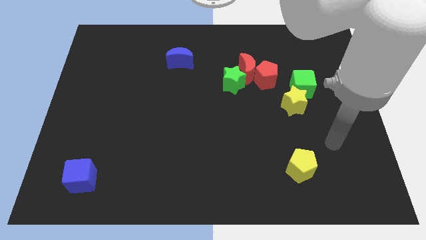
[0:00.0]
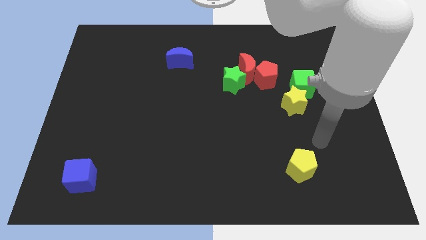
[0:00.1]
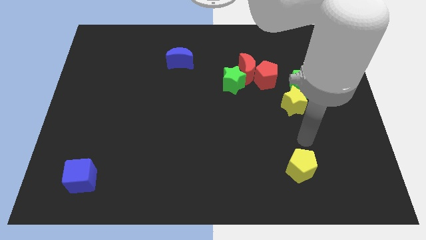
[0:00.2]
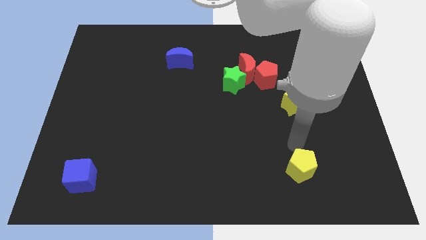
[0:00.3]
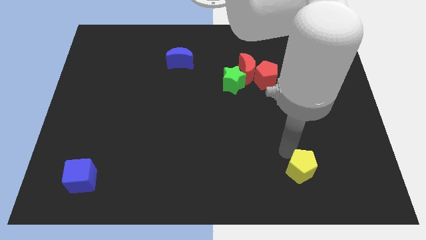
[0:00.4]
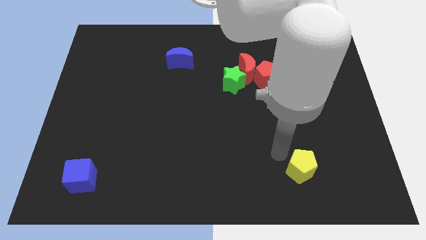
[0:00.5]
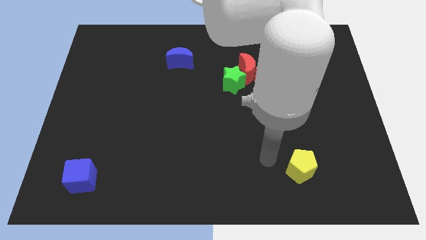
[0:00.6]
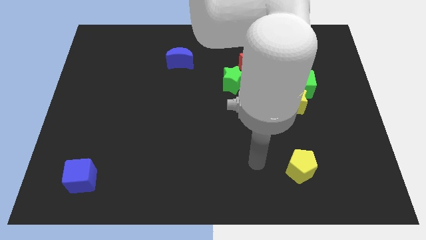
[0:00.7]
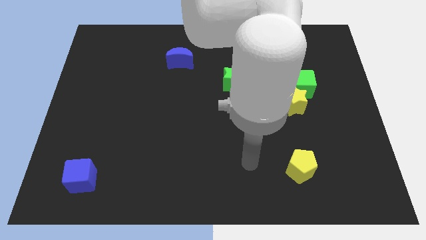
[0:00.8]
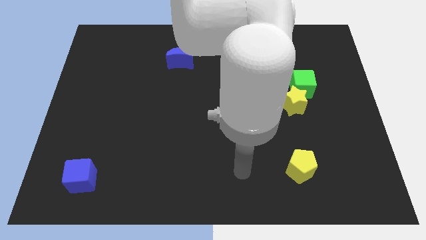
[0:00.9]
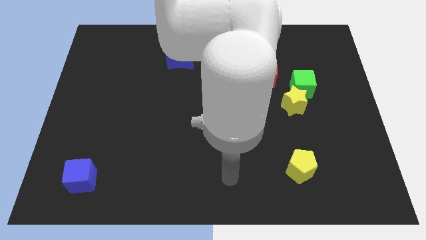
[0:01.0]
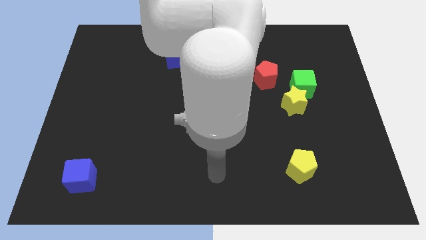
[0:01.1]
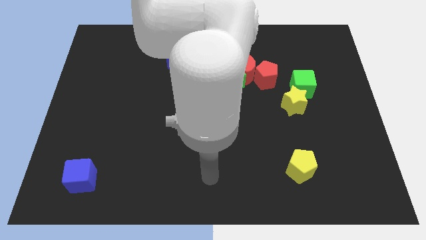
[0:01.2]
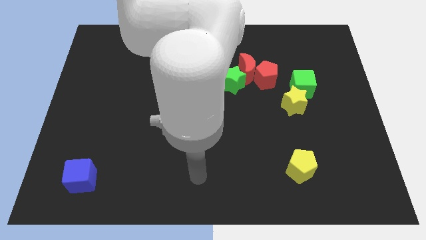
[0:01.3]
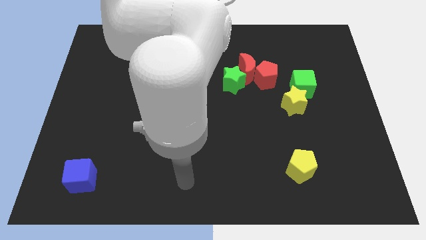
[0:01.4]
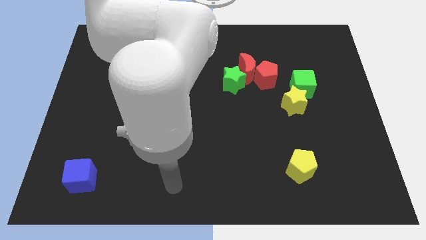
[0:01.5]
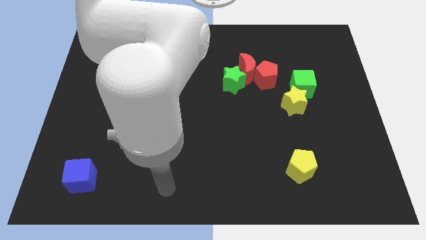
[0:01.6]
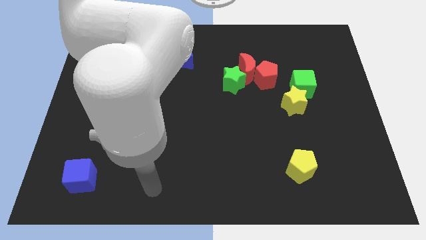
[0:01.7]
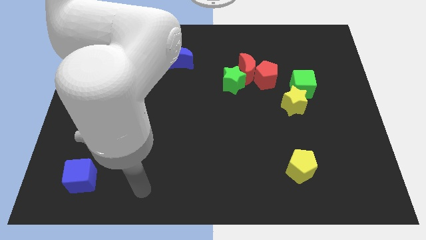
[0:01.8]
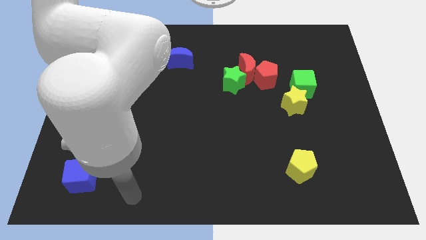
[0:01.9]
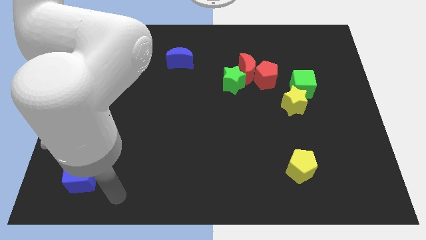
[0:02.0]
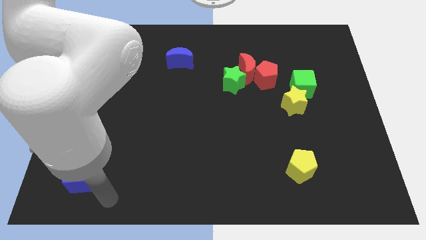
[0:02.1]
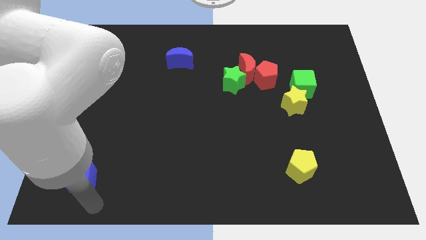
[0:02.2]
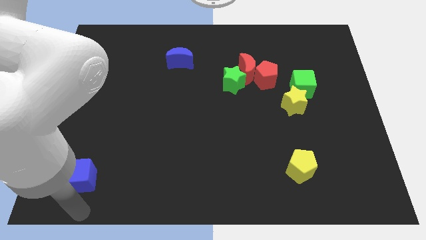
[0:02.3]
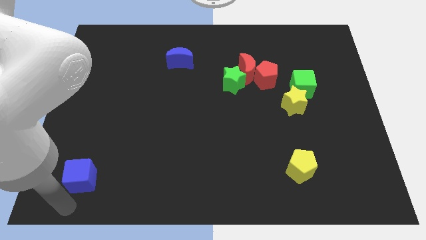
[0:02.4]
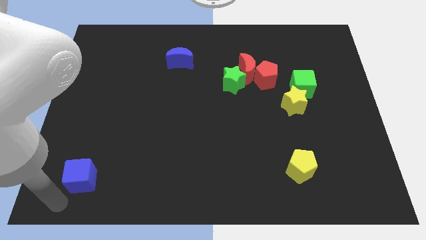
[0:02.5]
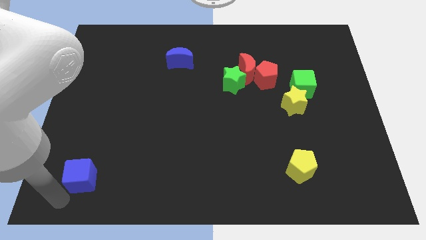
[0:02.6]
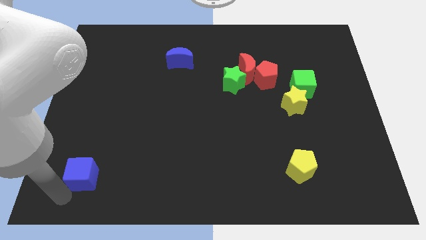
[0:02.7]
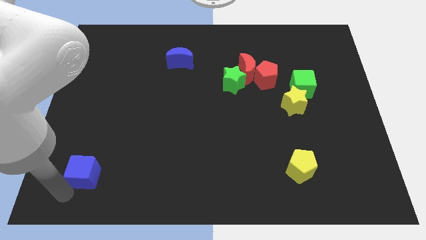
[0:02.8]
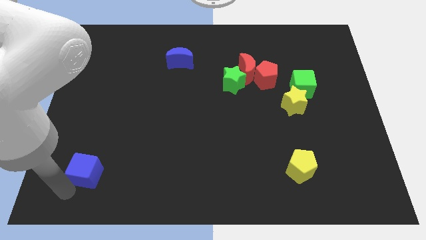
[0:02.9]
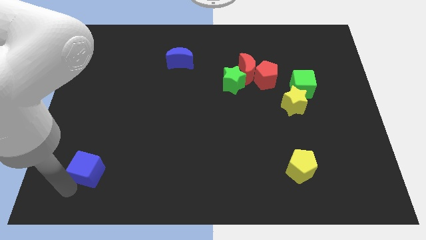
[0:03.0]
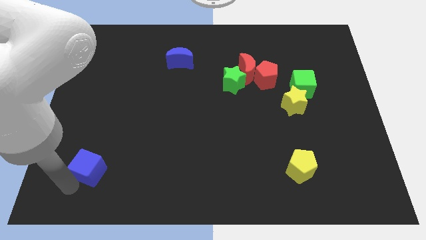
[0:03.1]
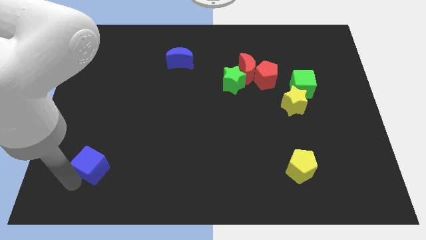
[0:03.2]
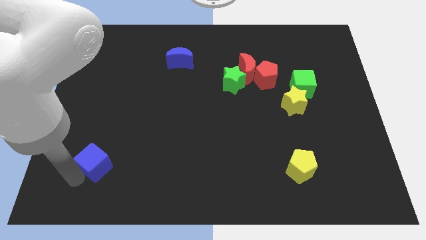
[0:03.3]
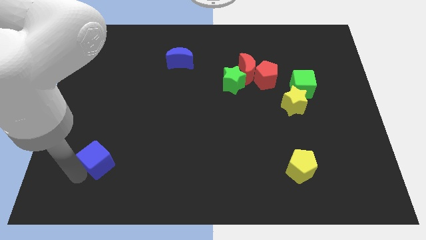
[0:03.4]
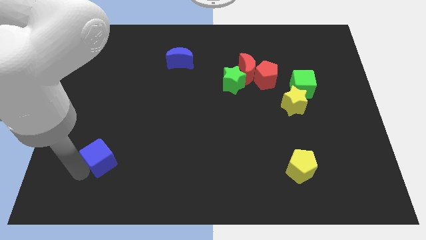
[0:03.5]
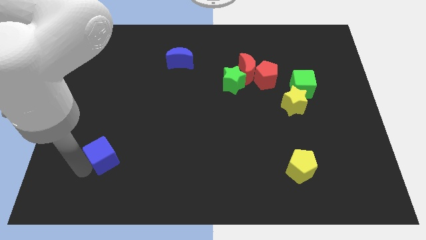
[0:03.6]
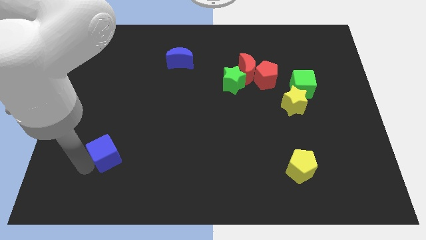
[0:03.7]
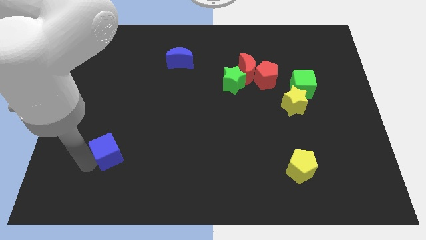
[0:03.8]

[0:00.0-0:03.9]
slightly move the blue cube up and right

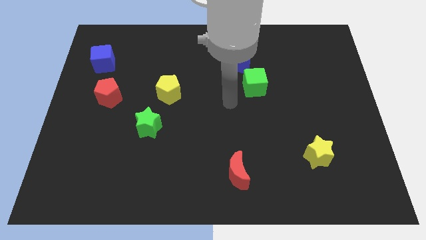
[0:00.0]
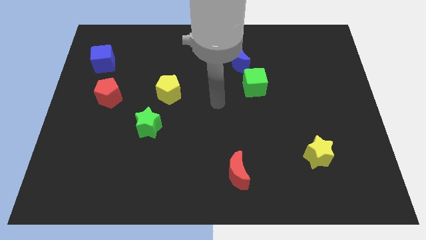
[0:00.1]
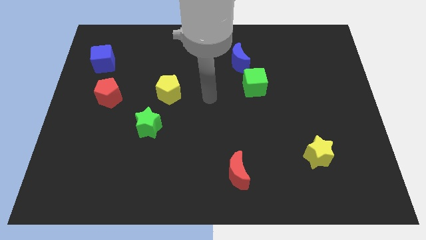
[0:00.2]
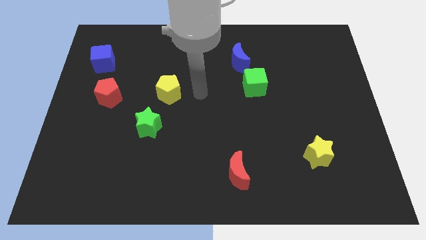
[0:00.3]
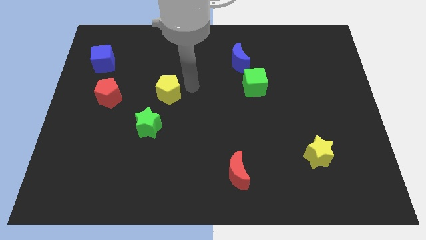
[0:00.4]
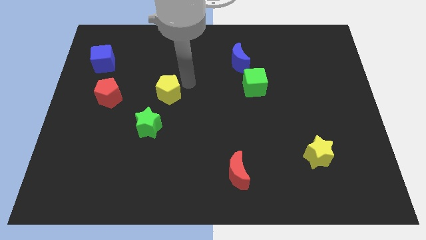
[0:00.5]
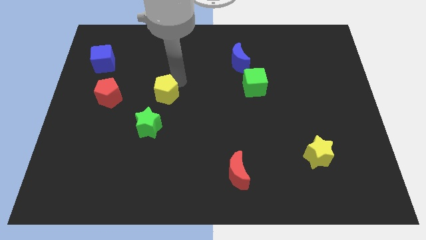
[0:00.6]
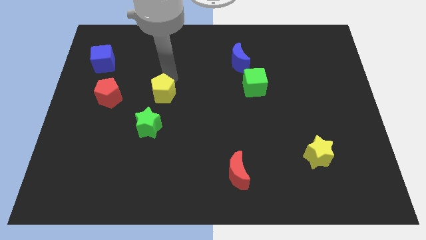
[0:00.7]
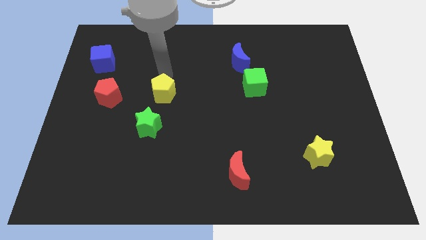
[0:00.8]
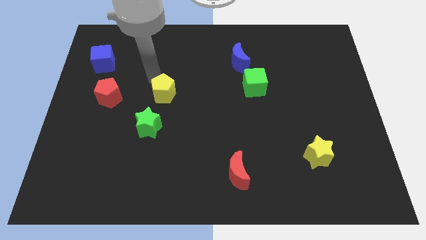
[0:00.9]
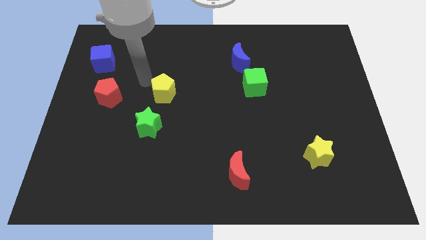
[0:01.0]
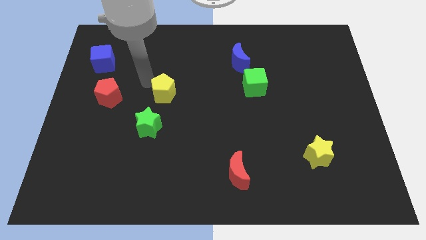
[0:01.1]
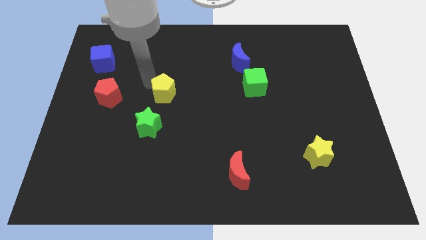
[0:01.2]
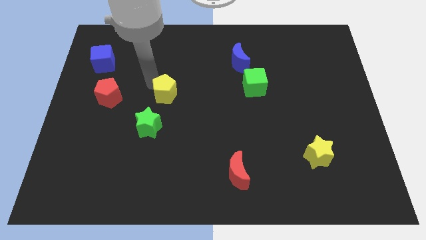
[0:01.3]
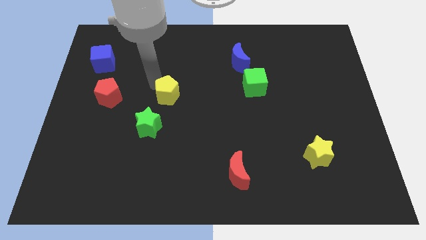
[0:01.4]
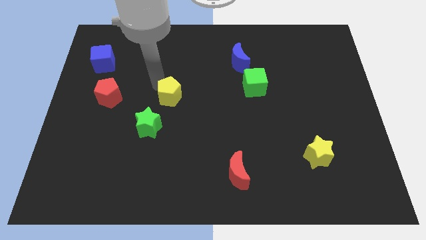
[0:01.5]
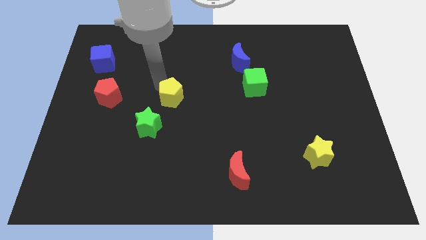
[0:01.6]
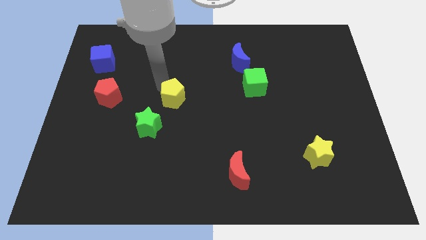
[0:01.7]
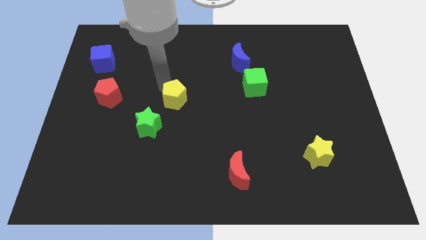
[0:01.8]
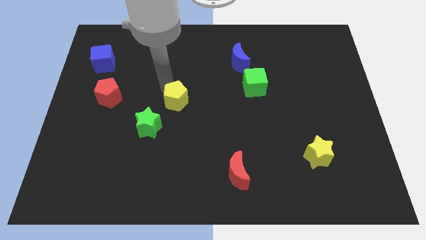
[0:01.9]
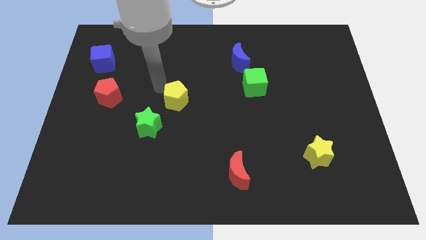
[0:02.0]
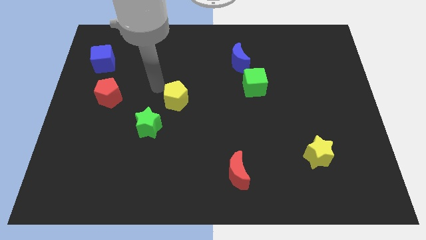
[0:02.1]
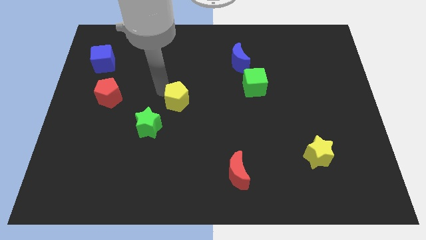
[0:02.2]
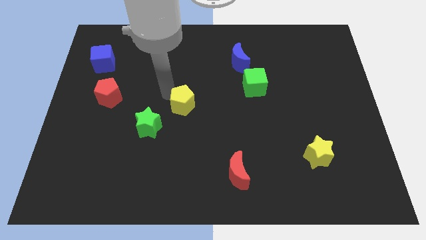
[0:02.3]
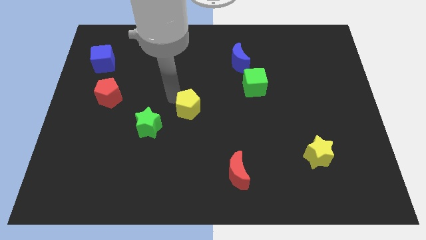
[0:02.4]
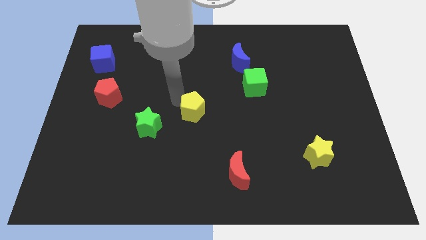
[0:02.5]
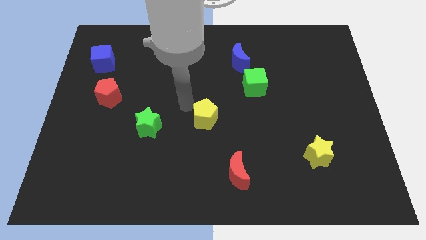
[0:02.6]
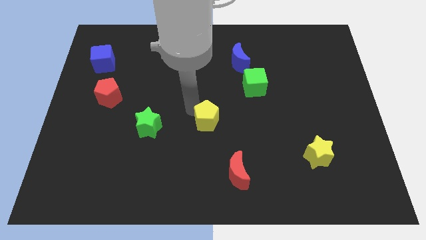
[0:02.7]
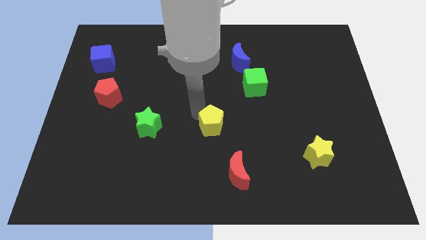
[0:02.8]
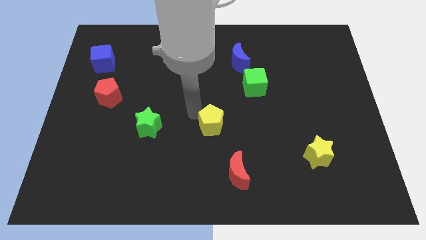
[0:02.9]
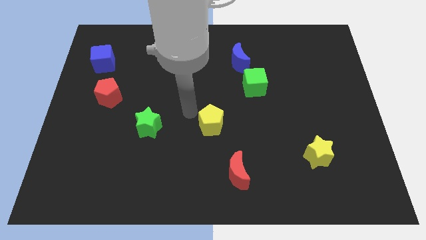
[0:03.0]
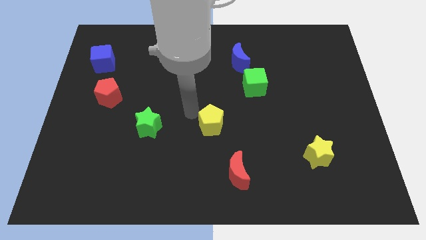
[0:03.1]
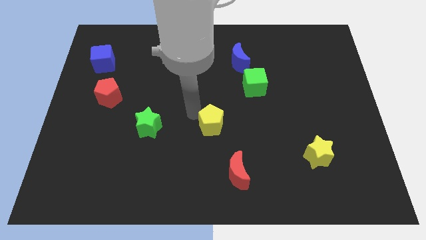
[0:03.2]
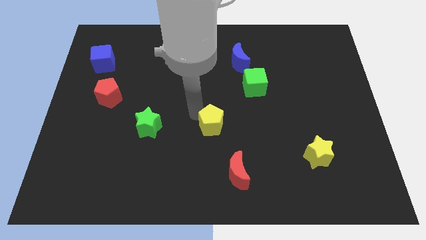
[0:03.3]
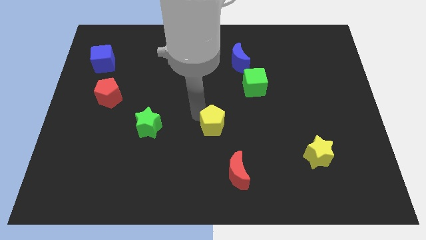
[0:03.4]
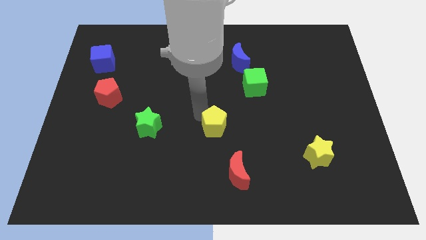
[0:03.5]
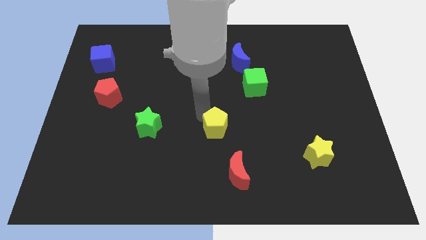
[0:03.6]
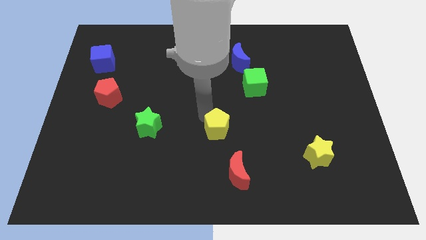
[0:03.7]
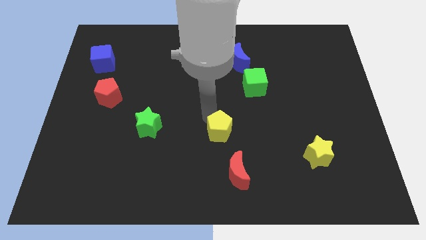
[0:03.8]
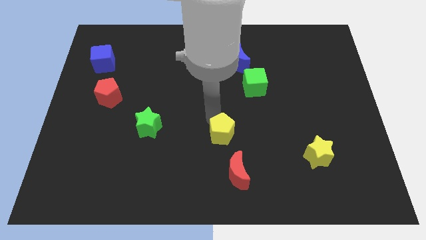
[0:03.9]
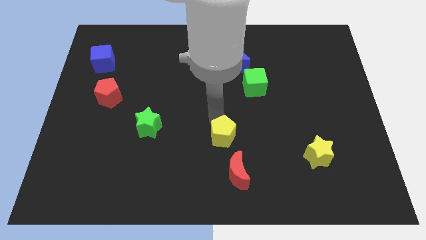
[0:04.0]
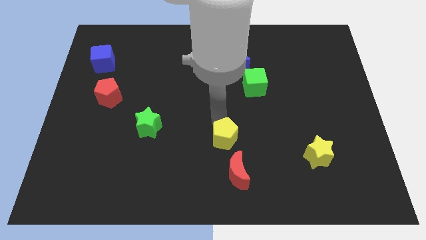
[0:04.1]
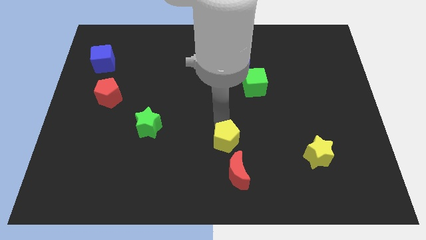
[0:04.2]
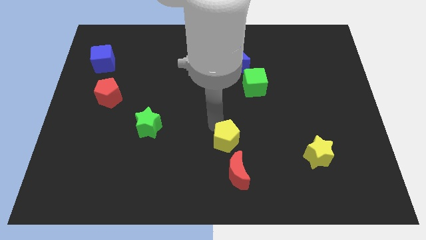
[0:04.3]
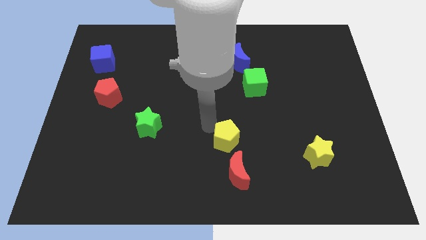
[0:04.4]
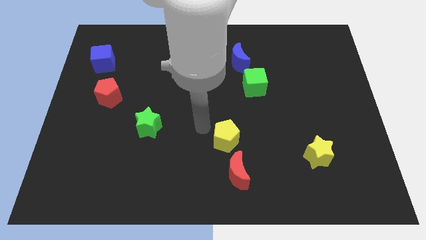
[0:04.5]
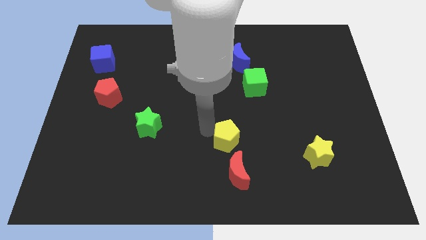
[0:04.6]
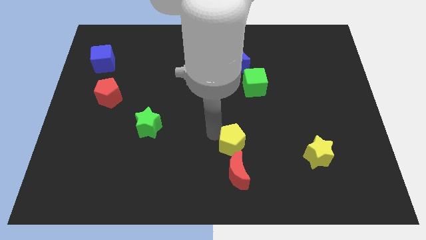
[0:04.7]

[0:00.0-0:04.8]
push the yellow pentagon down and then right
